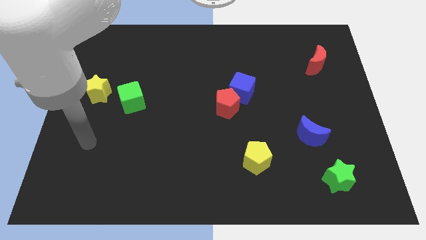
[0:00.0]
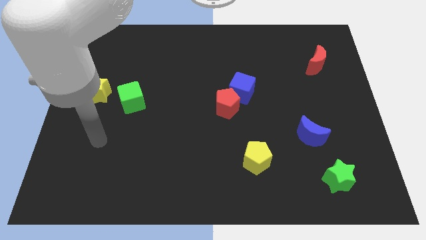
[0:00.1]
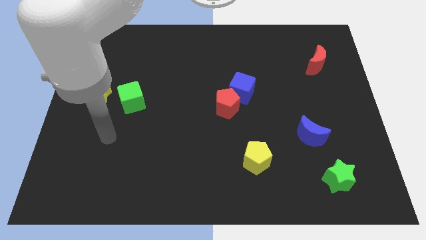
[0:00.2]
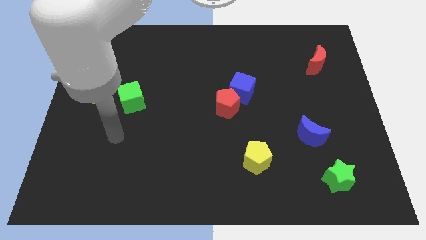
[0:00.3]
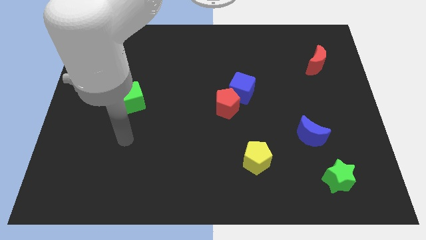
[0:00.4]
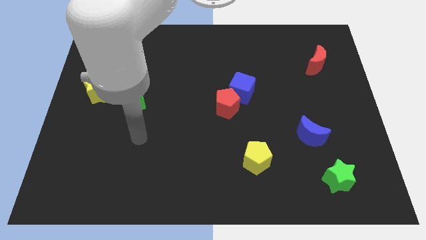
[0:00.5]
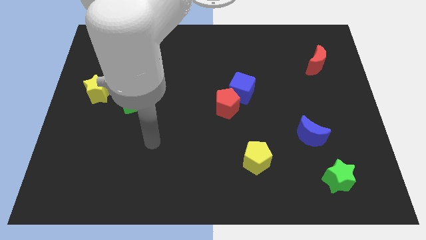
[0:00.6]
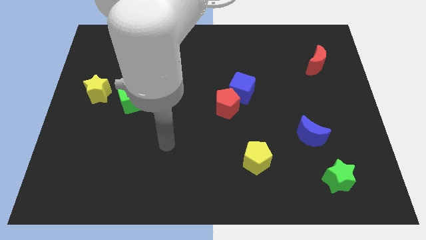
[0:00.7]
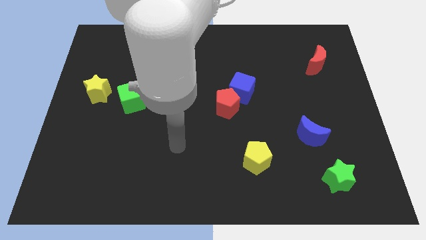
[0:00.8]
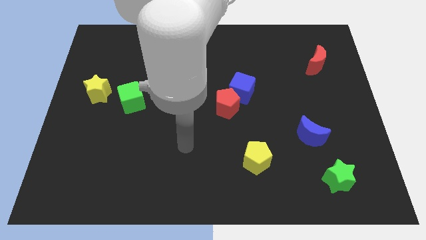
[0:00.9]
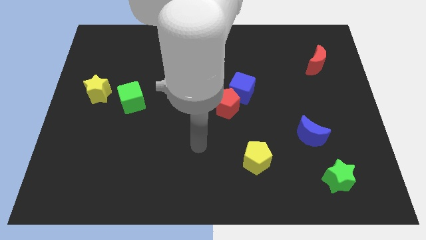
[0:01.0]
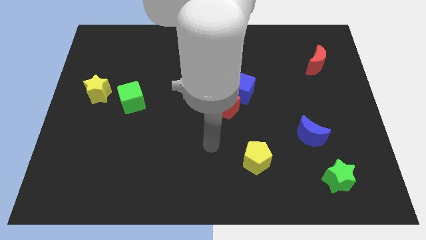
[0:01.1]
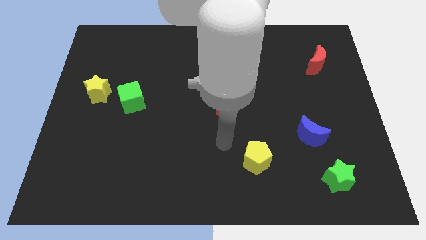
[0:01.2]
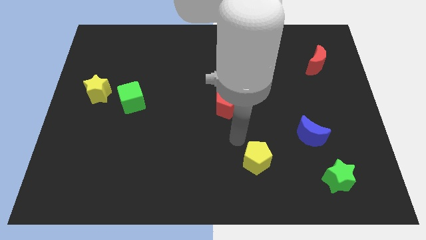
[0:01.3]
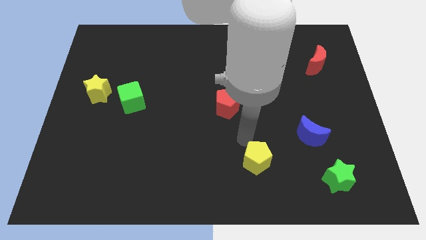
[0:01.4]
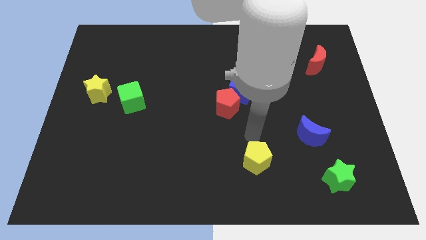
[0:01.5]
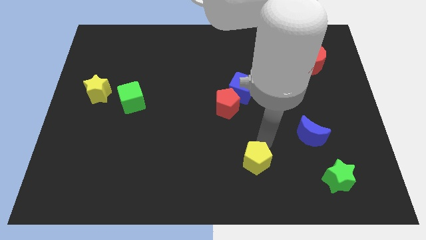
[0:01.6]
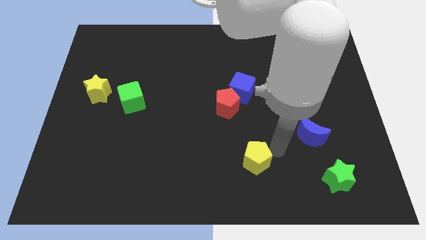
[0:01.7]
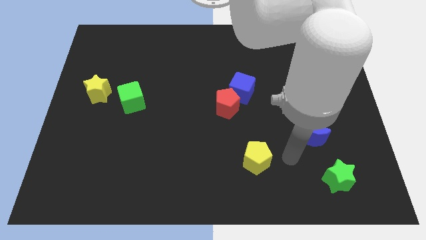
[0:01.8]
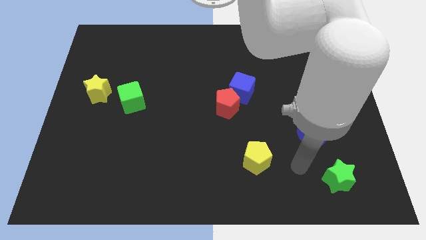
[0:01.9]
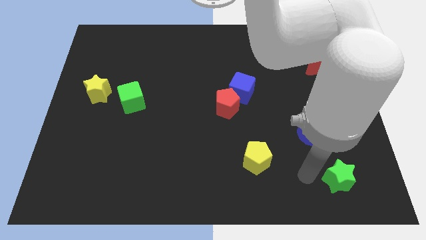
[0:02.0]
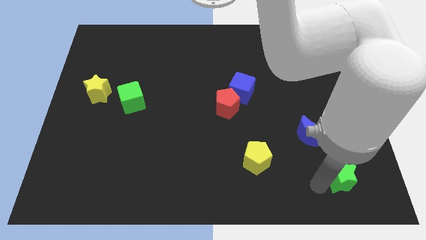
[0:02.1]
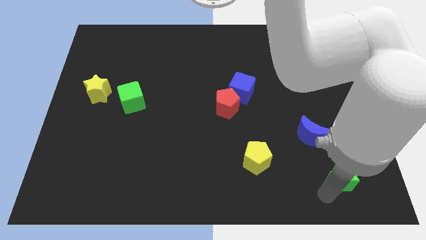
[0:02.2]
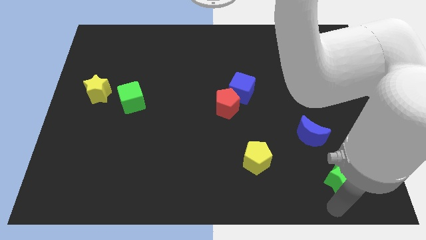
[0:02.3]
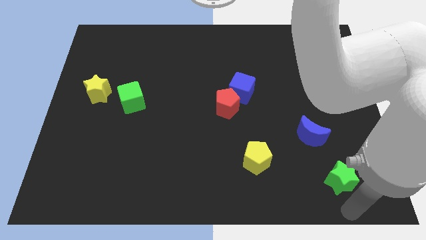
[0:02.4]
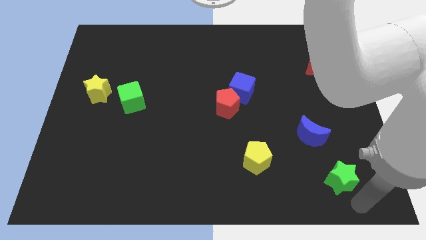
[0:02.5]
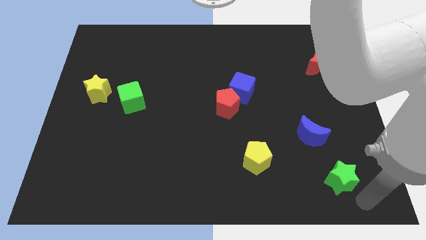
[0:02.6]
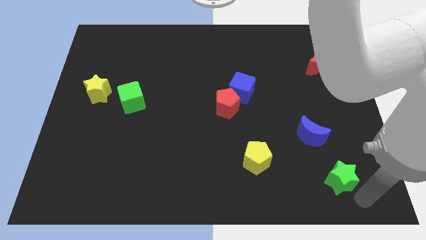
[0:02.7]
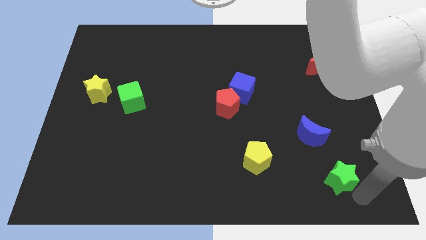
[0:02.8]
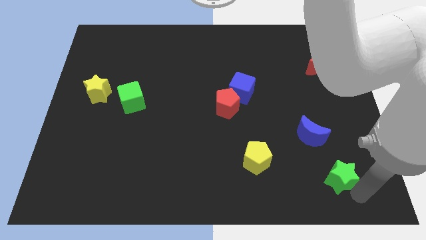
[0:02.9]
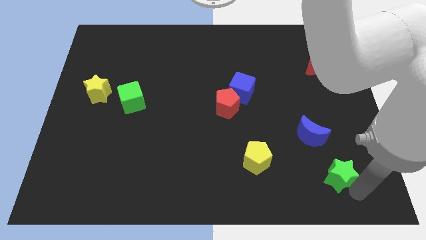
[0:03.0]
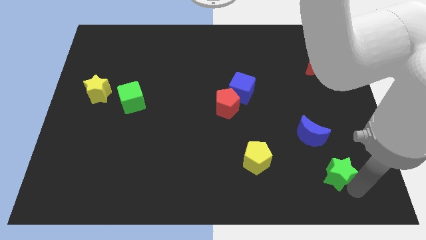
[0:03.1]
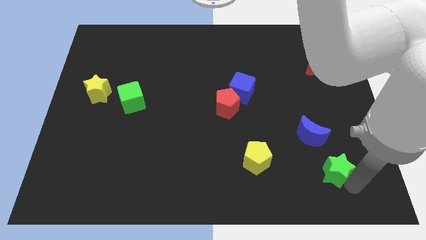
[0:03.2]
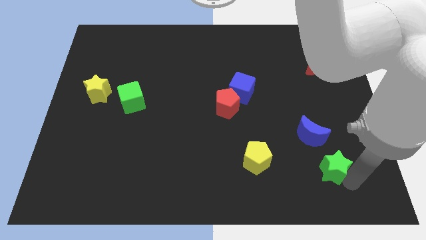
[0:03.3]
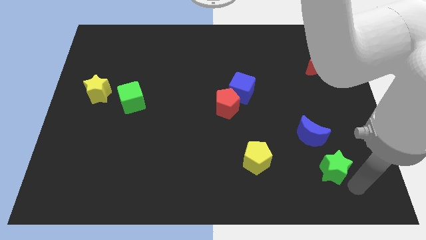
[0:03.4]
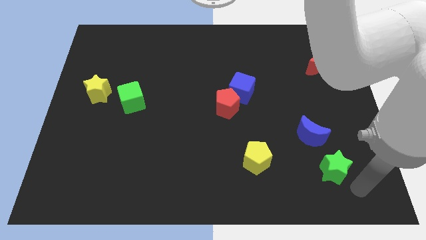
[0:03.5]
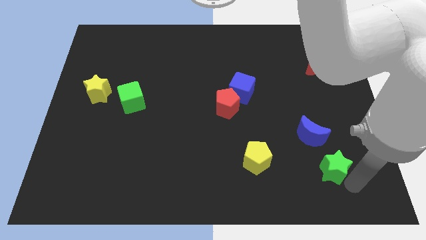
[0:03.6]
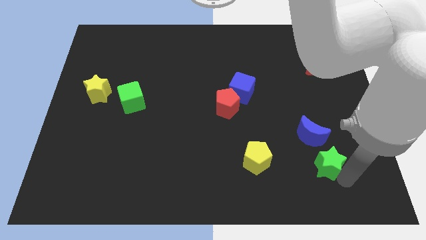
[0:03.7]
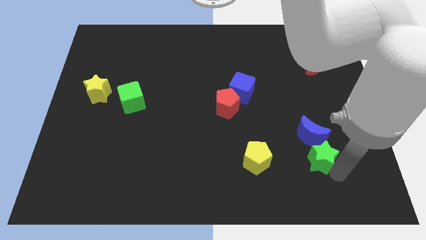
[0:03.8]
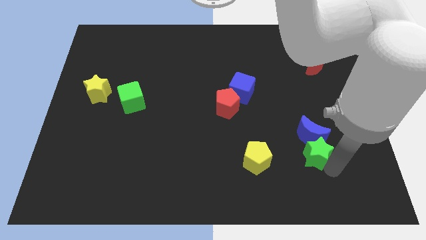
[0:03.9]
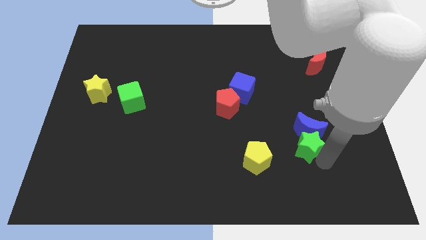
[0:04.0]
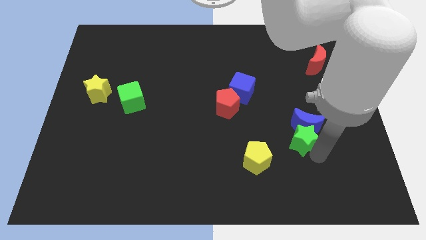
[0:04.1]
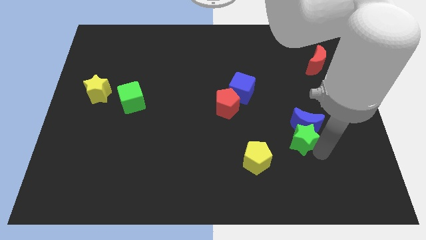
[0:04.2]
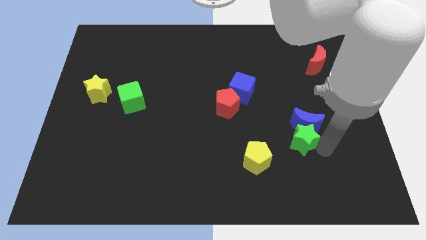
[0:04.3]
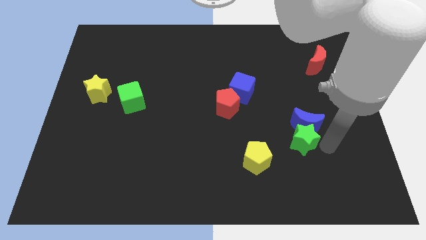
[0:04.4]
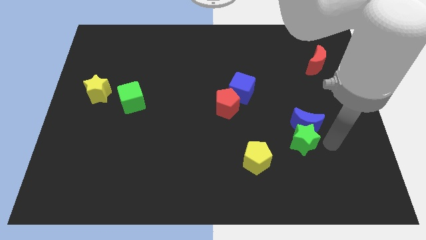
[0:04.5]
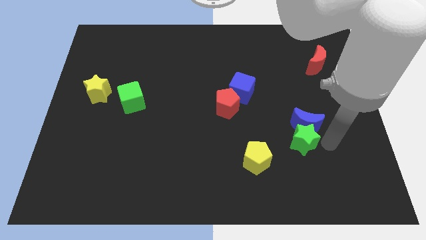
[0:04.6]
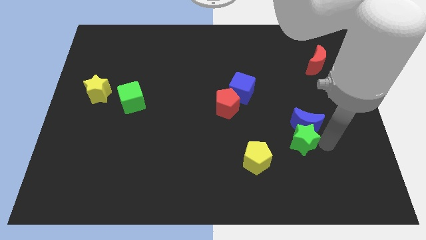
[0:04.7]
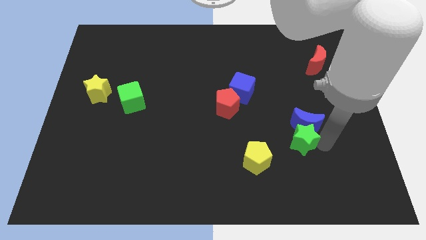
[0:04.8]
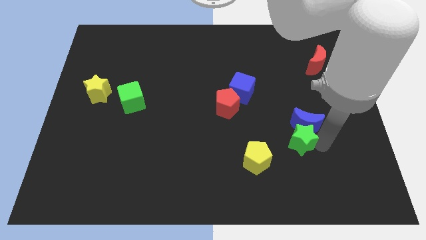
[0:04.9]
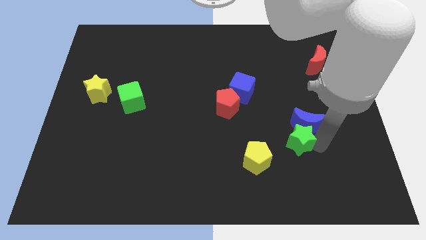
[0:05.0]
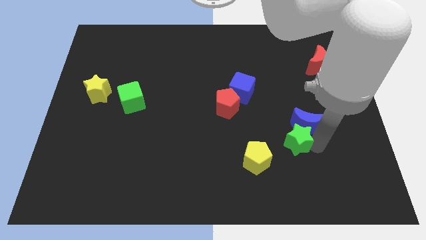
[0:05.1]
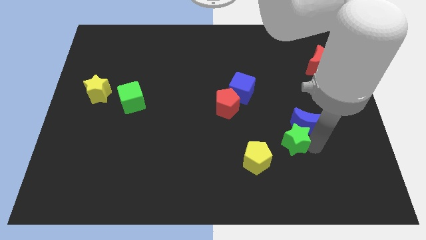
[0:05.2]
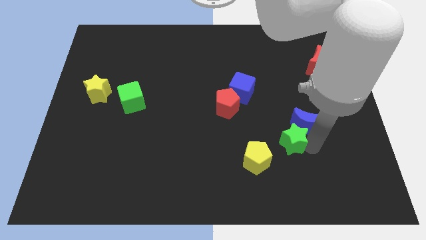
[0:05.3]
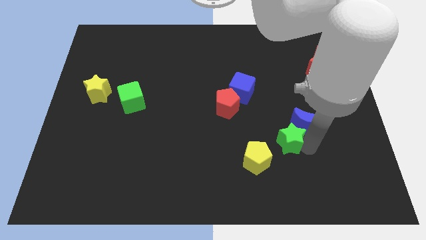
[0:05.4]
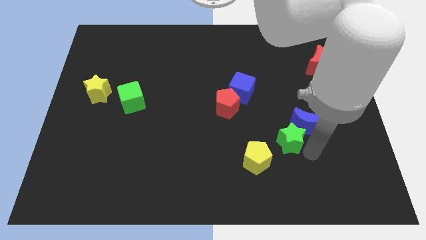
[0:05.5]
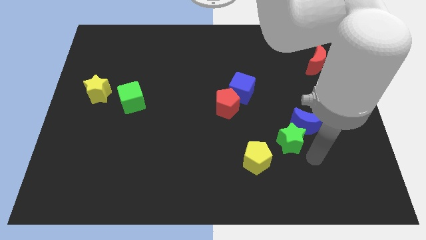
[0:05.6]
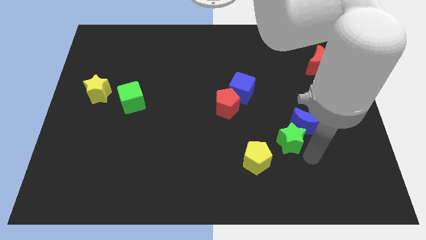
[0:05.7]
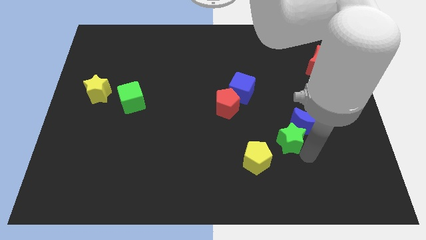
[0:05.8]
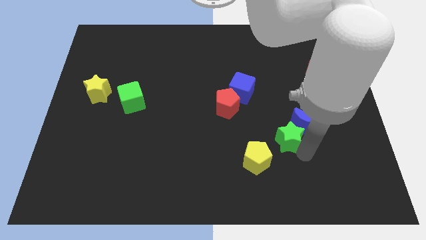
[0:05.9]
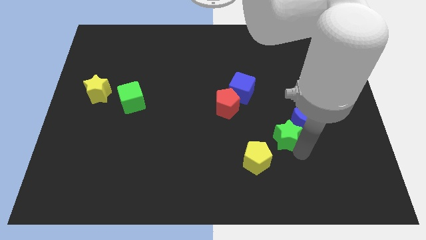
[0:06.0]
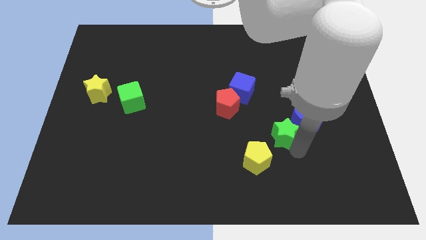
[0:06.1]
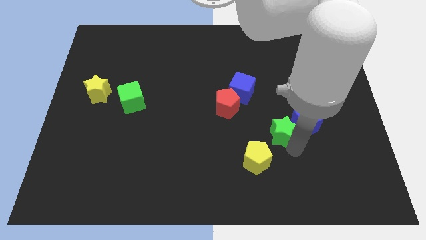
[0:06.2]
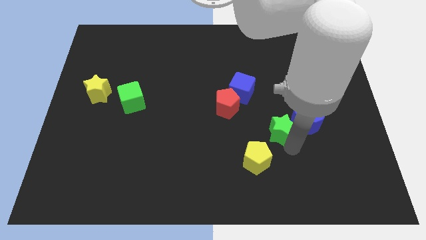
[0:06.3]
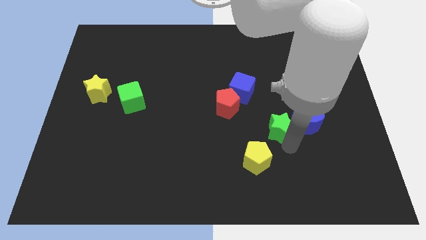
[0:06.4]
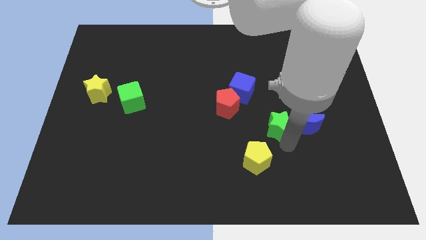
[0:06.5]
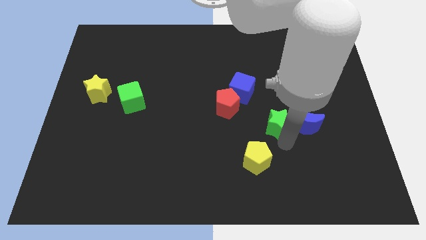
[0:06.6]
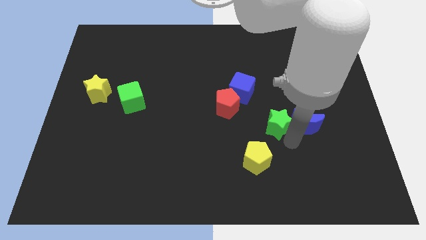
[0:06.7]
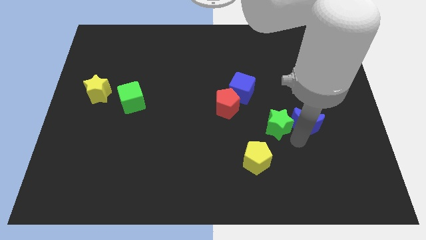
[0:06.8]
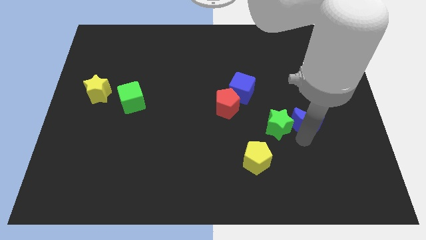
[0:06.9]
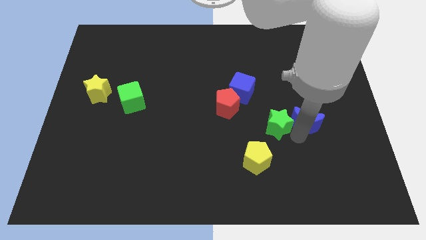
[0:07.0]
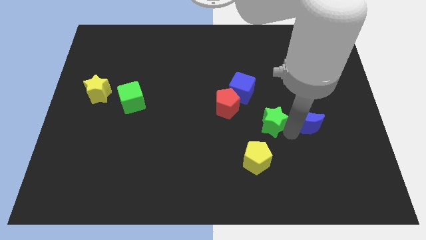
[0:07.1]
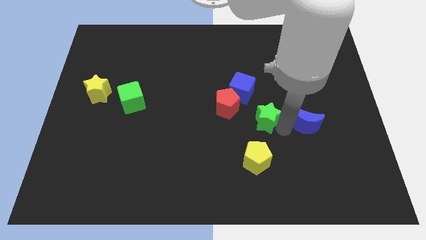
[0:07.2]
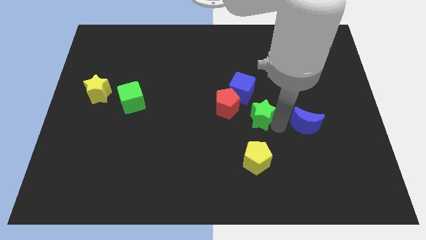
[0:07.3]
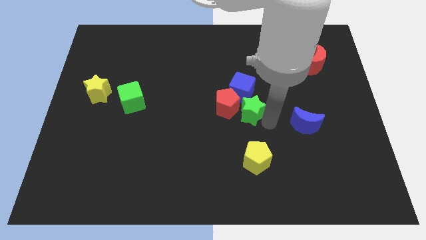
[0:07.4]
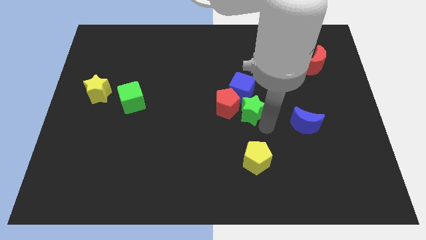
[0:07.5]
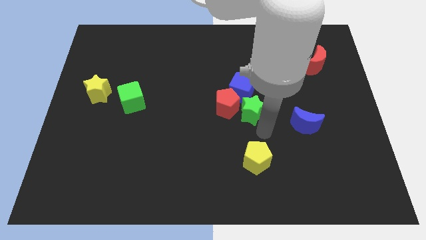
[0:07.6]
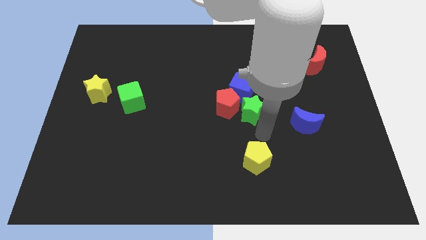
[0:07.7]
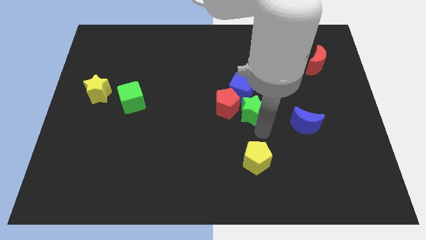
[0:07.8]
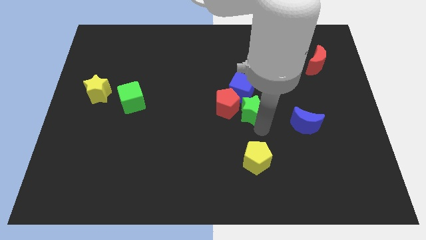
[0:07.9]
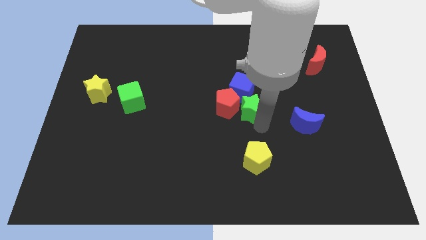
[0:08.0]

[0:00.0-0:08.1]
push the green star close to the blue cube
